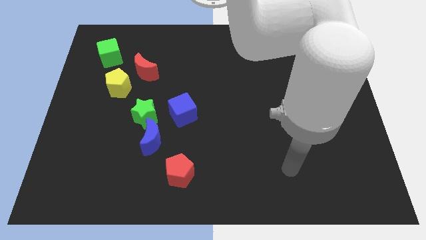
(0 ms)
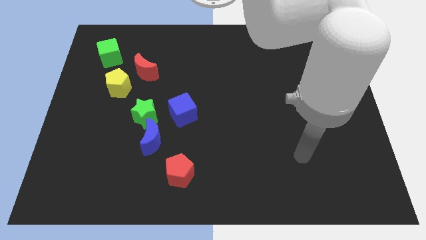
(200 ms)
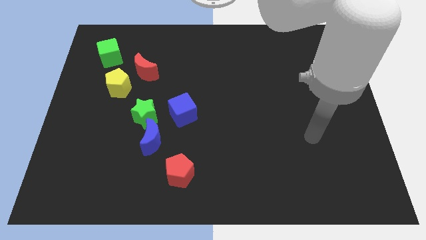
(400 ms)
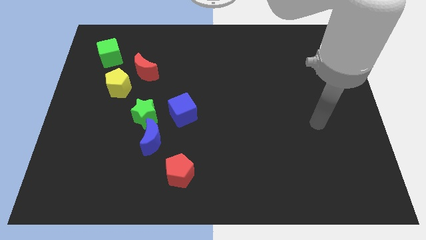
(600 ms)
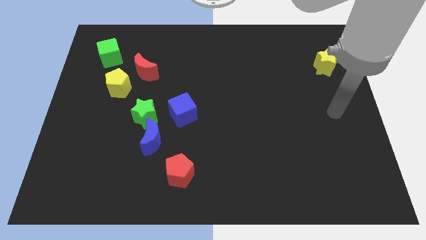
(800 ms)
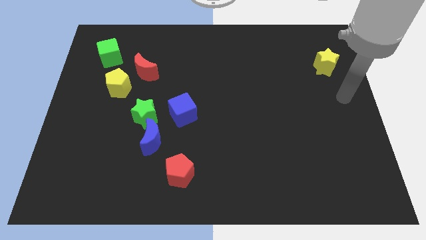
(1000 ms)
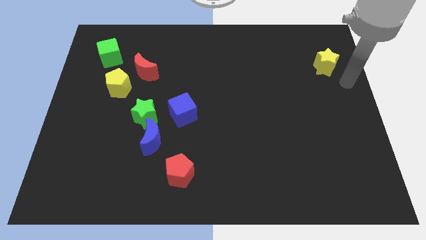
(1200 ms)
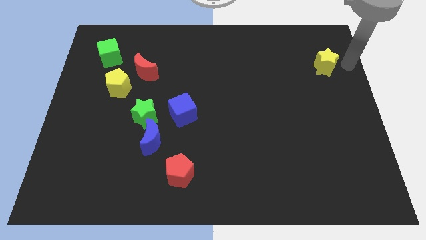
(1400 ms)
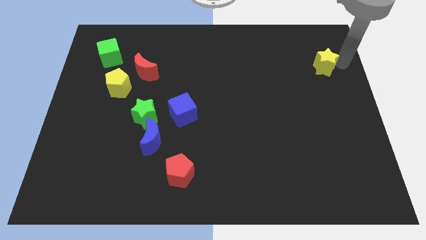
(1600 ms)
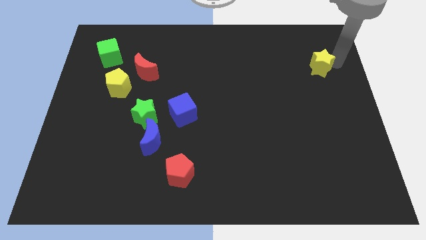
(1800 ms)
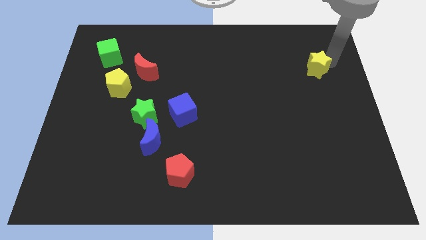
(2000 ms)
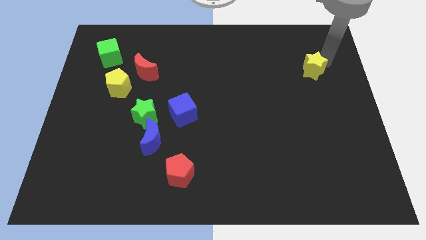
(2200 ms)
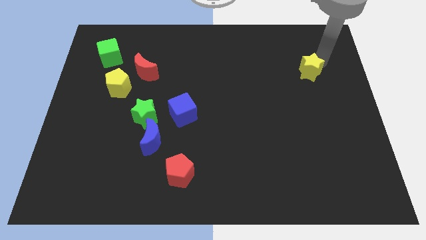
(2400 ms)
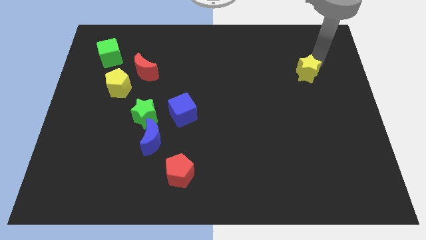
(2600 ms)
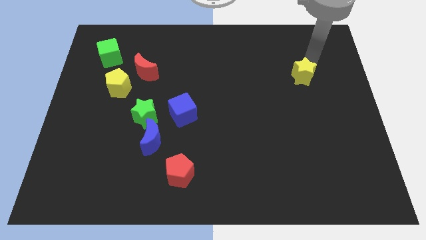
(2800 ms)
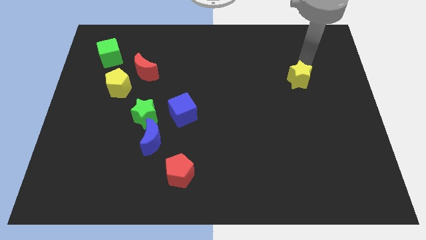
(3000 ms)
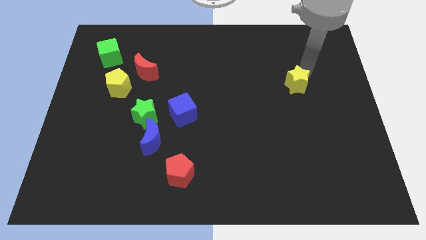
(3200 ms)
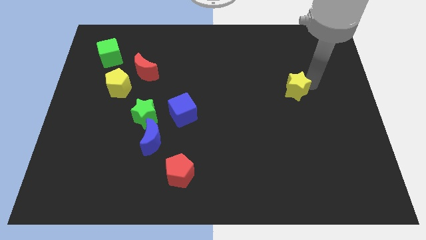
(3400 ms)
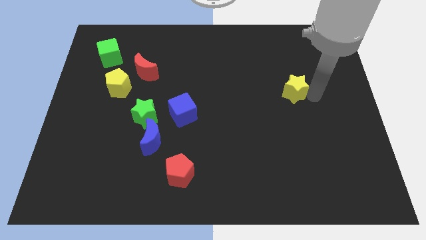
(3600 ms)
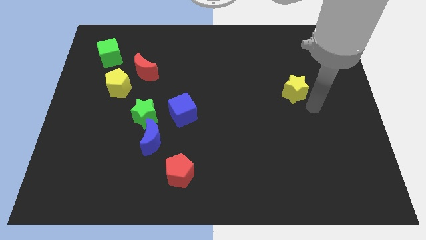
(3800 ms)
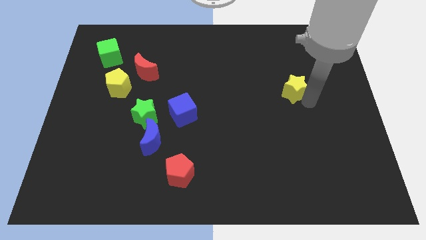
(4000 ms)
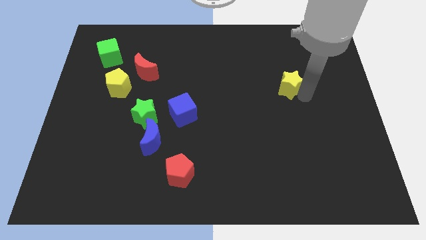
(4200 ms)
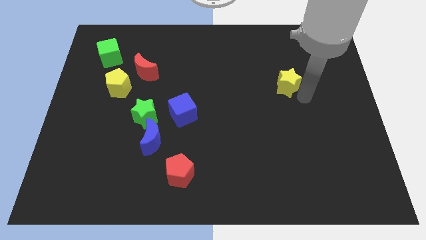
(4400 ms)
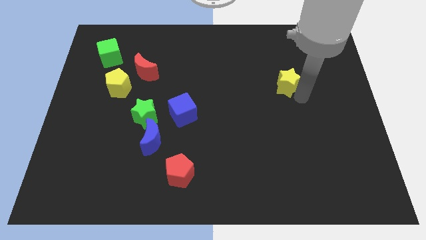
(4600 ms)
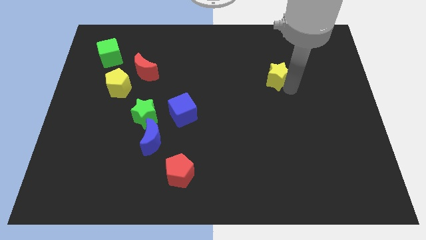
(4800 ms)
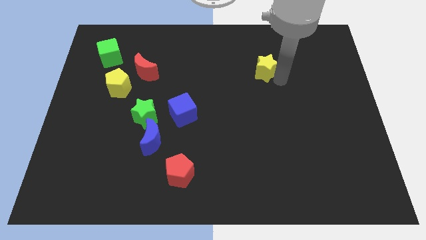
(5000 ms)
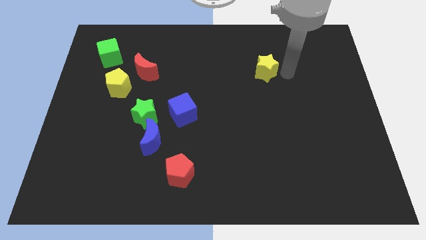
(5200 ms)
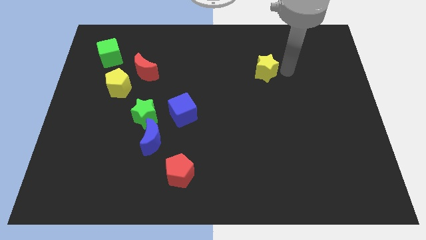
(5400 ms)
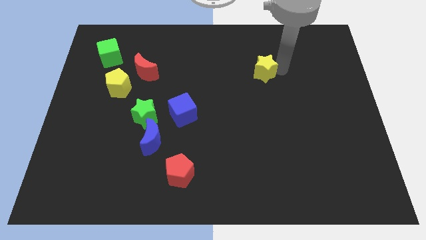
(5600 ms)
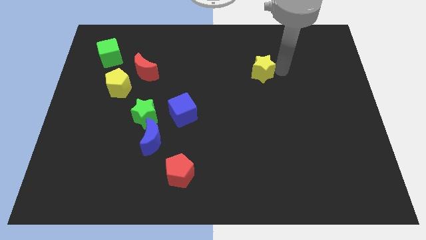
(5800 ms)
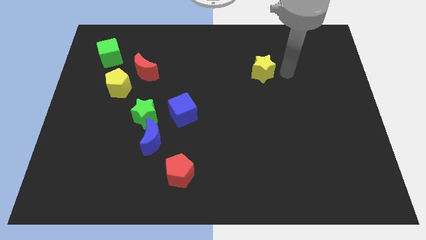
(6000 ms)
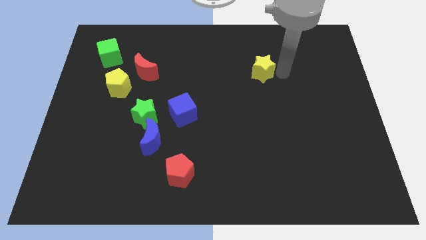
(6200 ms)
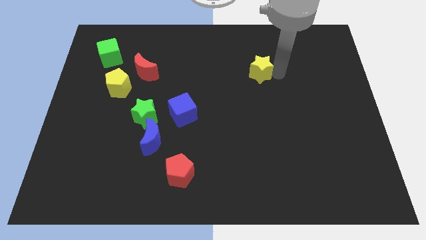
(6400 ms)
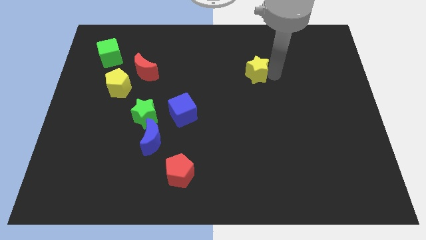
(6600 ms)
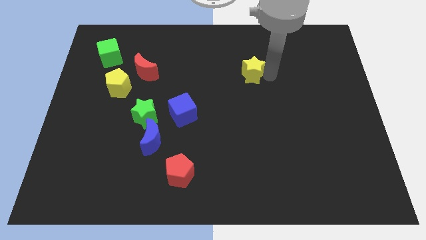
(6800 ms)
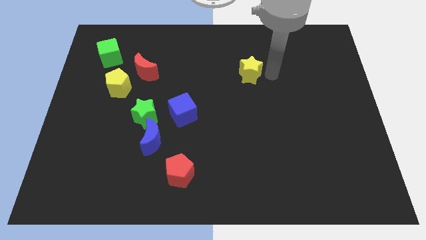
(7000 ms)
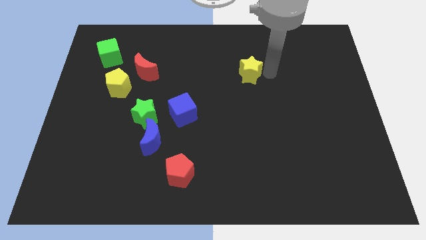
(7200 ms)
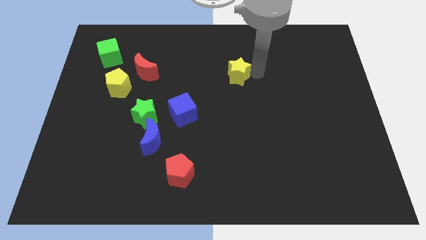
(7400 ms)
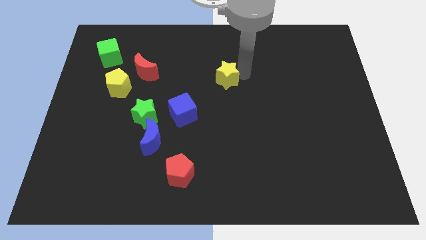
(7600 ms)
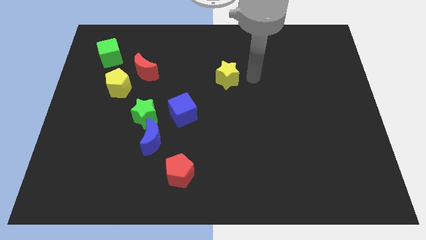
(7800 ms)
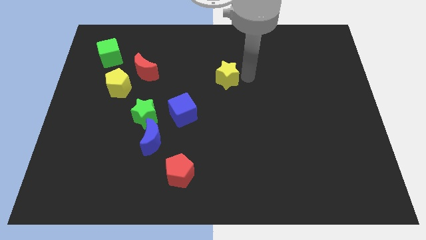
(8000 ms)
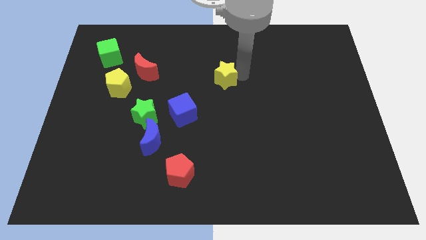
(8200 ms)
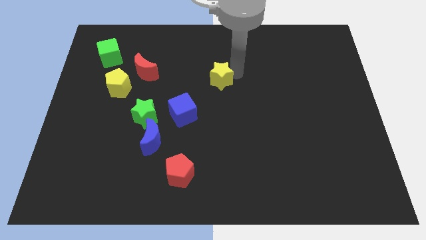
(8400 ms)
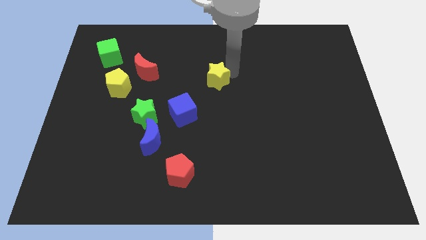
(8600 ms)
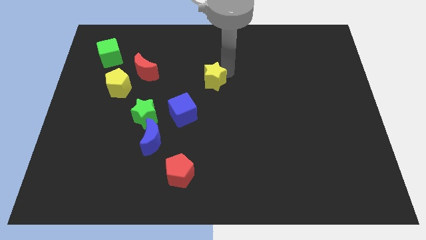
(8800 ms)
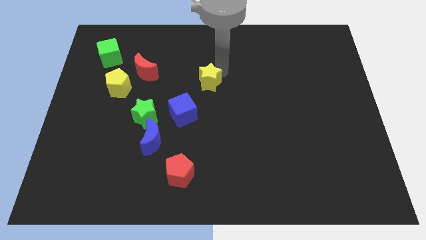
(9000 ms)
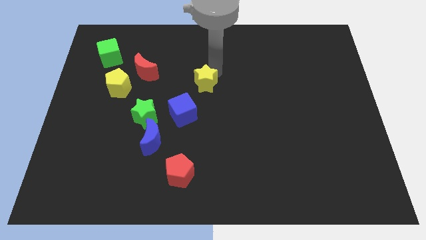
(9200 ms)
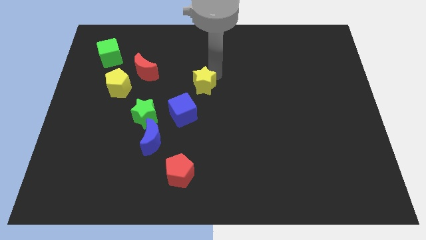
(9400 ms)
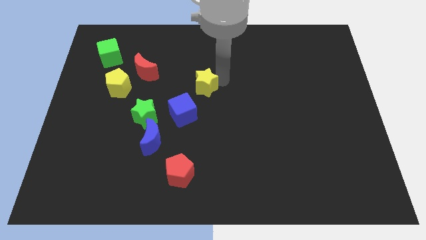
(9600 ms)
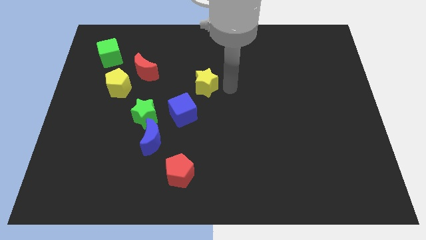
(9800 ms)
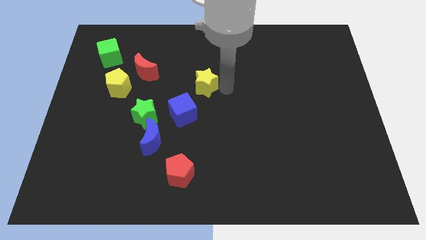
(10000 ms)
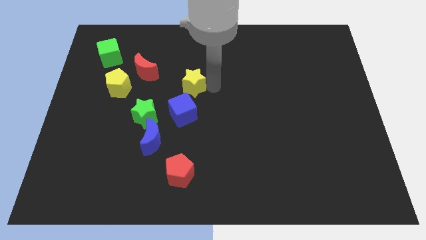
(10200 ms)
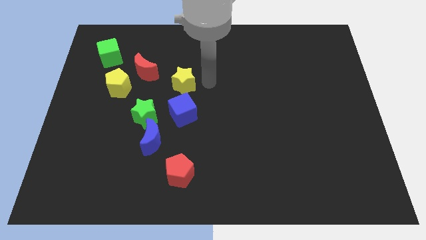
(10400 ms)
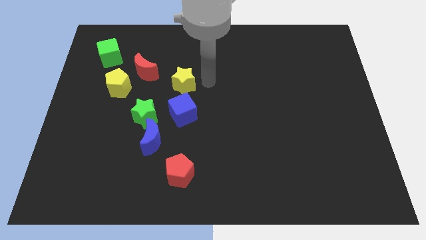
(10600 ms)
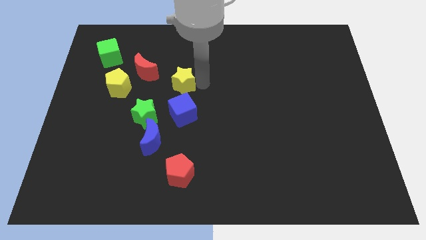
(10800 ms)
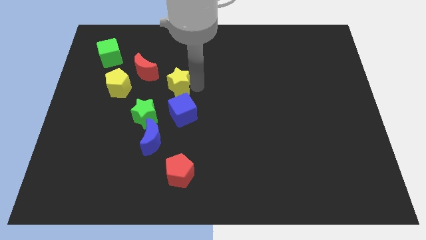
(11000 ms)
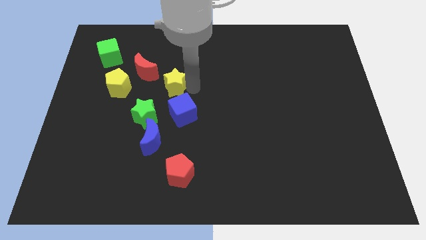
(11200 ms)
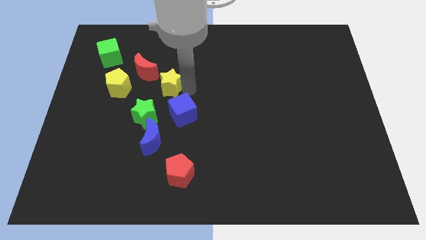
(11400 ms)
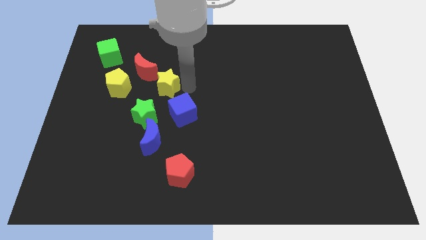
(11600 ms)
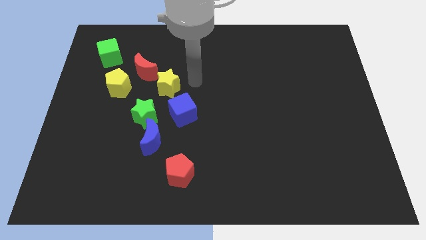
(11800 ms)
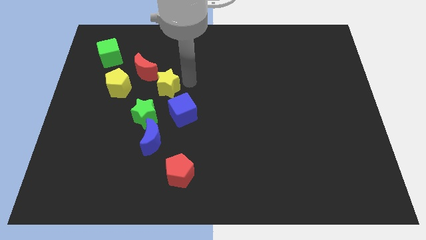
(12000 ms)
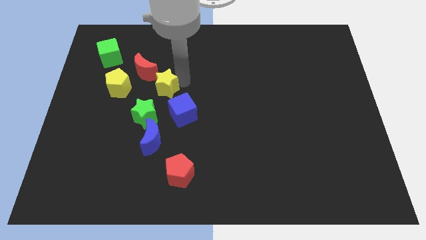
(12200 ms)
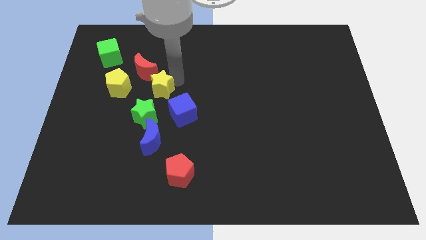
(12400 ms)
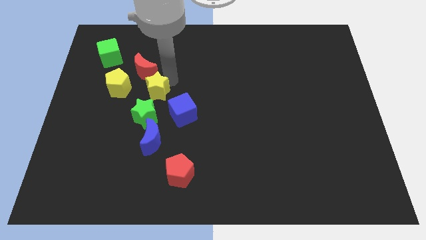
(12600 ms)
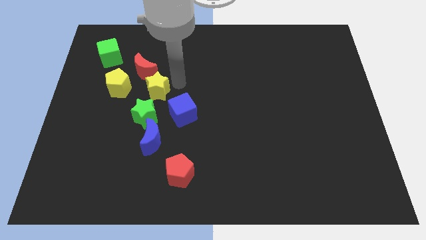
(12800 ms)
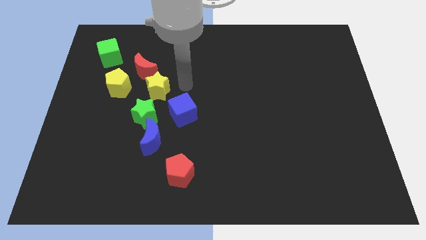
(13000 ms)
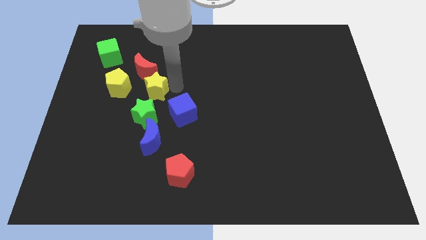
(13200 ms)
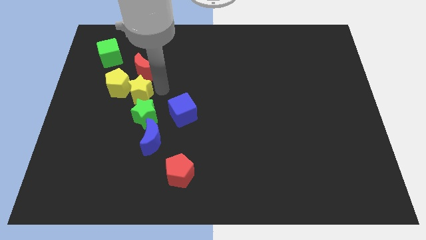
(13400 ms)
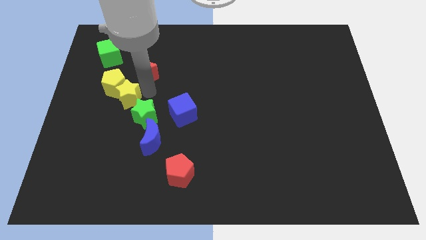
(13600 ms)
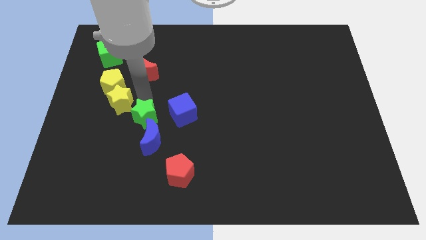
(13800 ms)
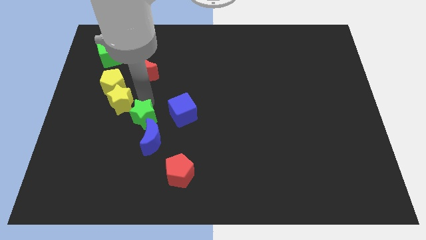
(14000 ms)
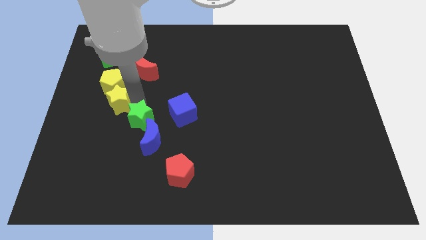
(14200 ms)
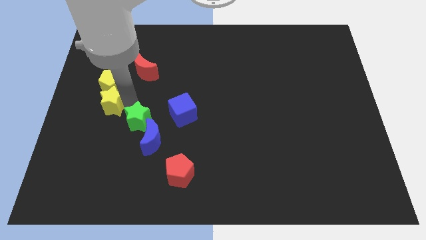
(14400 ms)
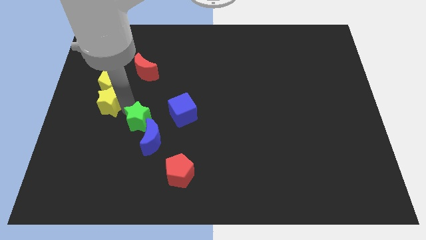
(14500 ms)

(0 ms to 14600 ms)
slide the yellow star to the bottom left of the yellow pentagon
